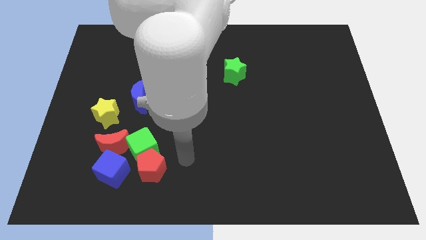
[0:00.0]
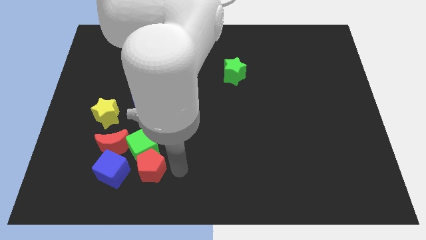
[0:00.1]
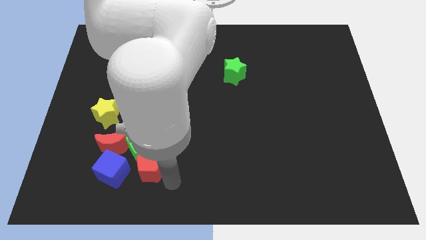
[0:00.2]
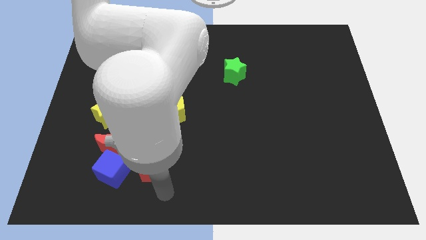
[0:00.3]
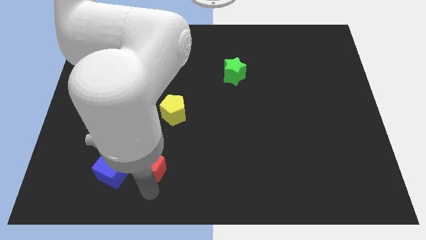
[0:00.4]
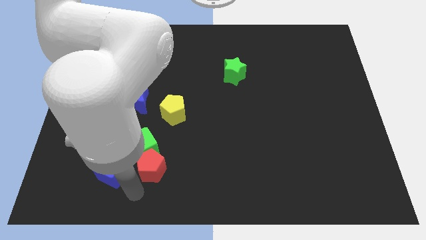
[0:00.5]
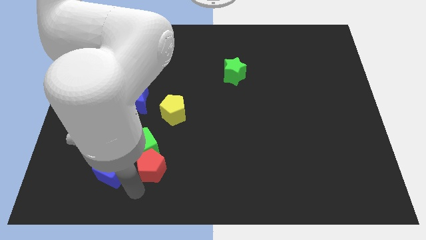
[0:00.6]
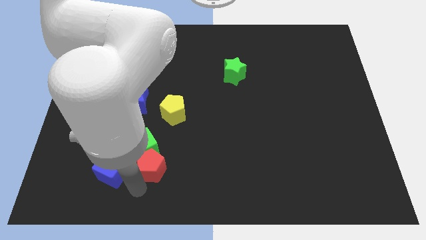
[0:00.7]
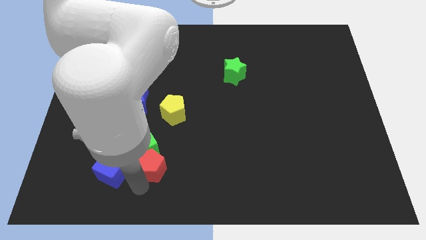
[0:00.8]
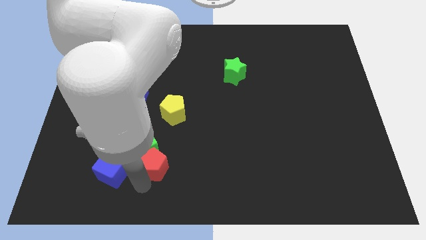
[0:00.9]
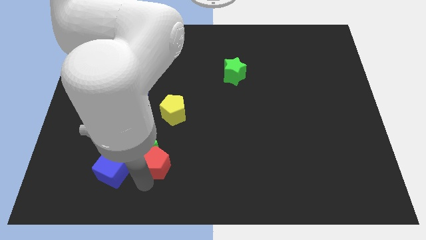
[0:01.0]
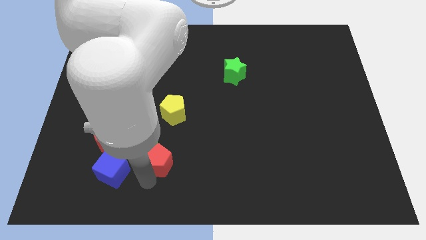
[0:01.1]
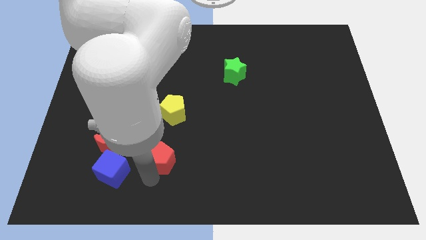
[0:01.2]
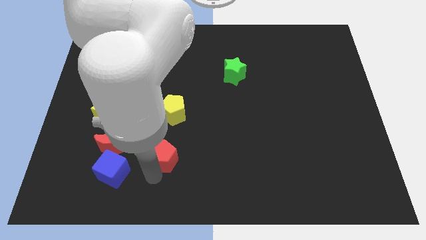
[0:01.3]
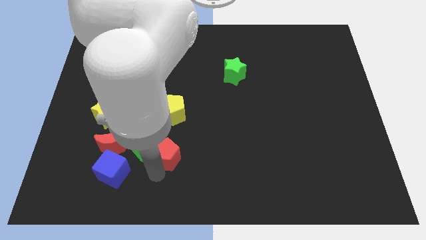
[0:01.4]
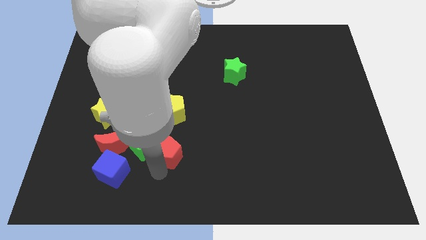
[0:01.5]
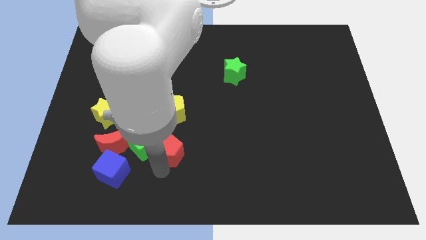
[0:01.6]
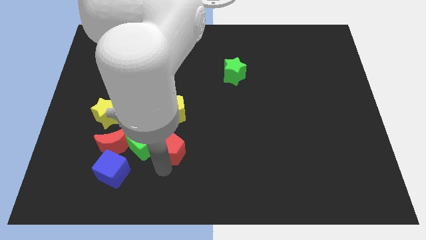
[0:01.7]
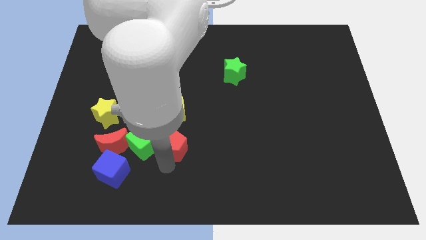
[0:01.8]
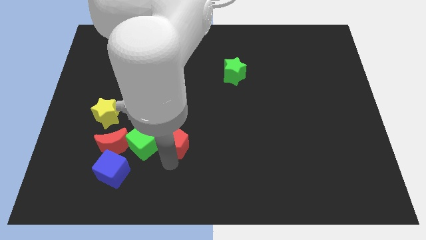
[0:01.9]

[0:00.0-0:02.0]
slightly move the red pentagon up and right

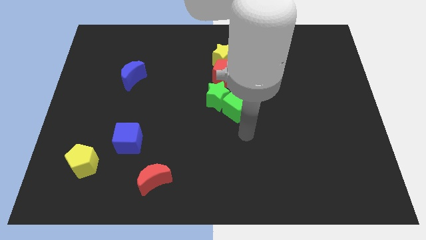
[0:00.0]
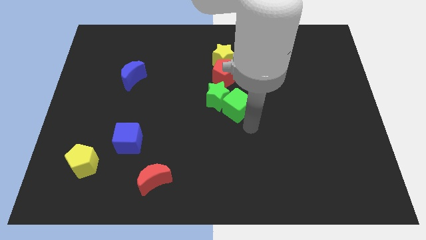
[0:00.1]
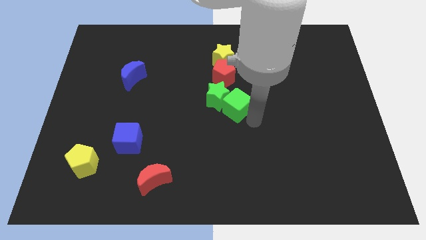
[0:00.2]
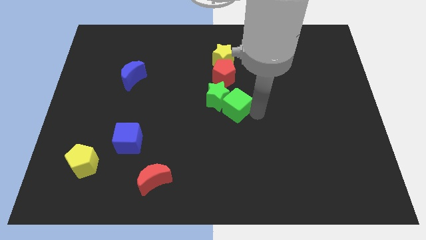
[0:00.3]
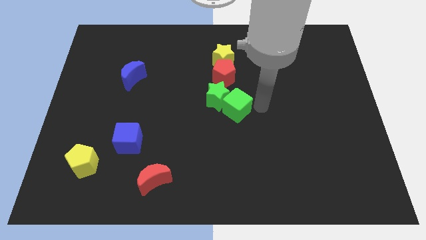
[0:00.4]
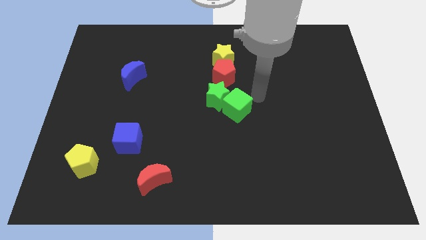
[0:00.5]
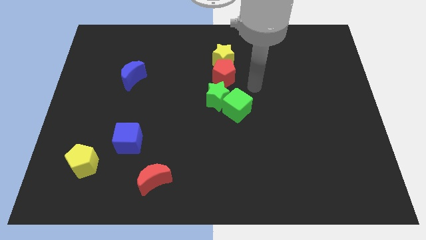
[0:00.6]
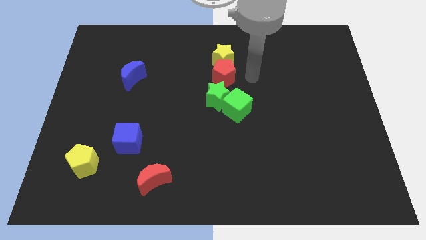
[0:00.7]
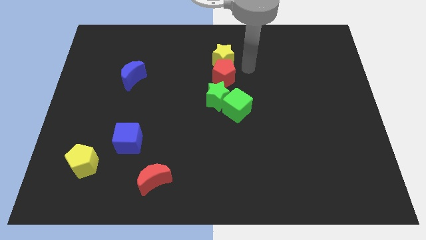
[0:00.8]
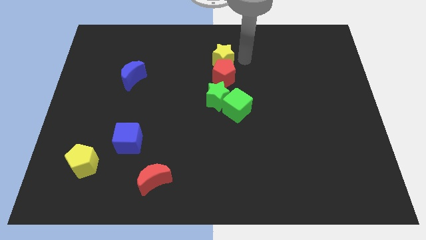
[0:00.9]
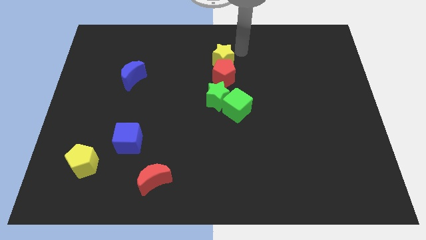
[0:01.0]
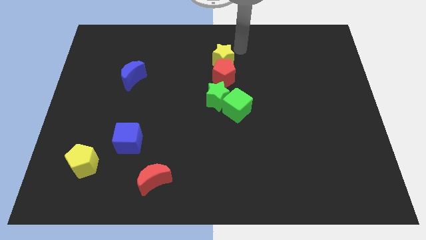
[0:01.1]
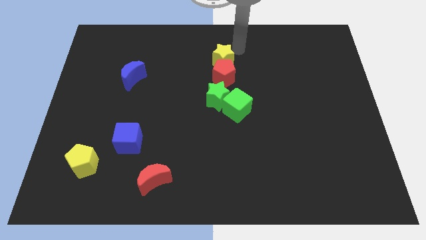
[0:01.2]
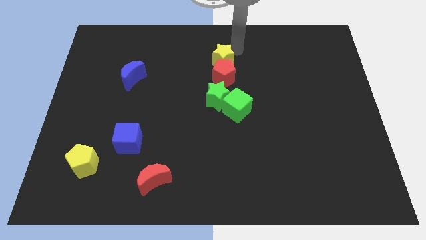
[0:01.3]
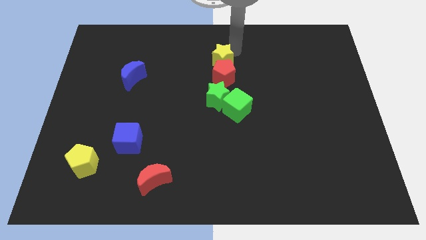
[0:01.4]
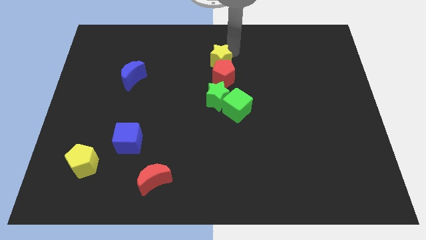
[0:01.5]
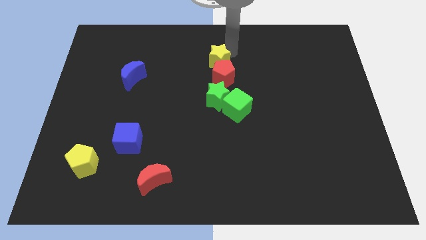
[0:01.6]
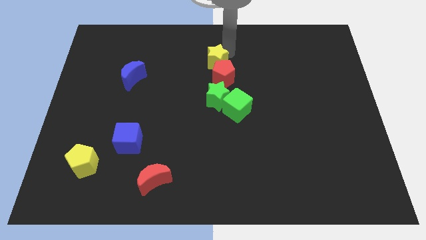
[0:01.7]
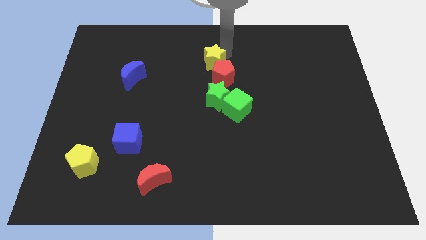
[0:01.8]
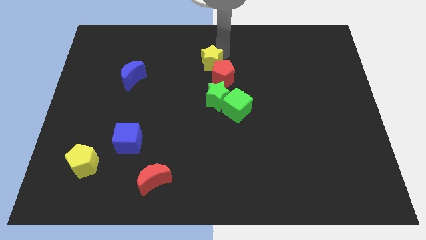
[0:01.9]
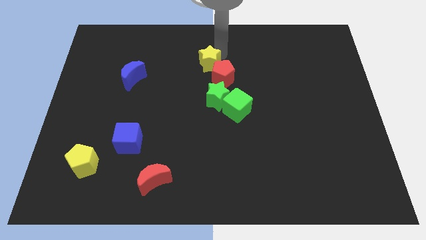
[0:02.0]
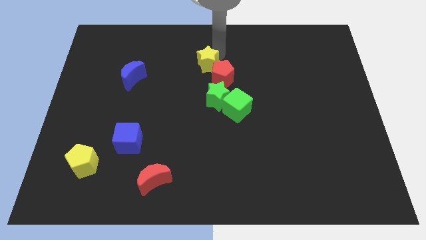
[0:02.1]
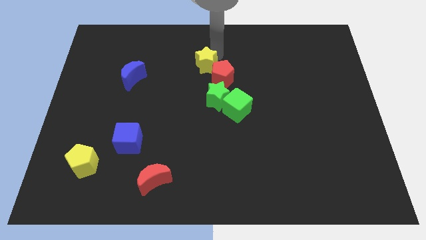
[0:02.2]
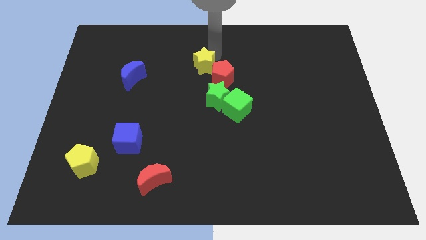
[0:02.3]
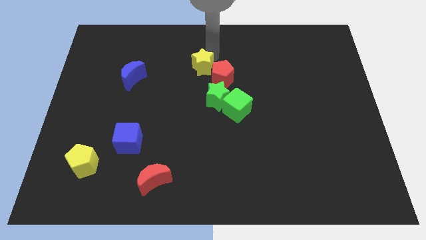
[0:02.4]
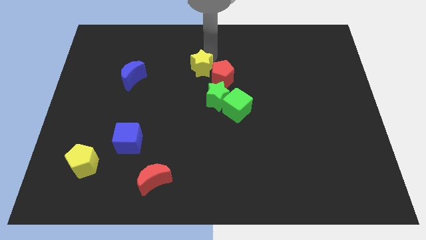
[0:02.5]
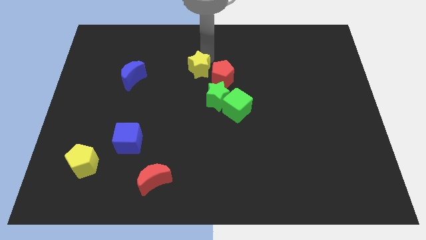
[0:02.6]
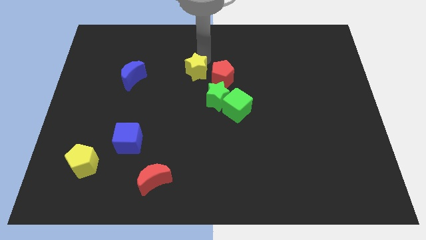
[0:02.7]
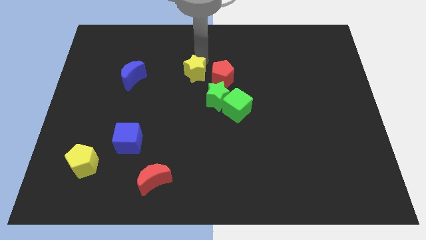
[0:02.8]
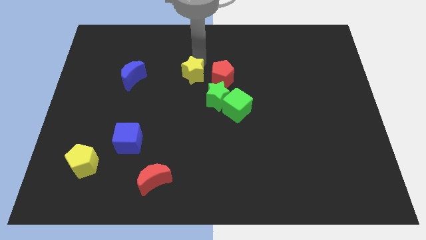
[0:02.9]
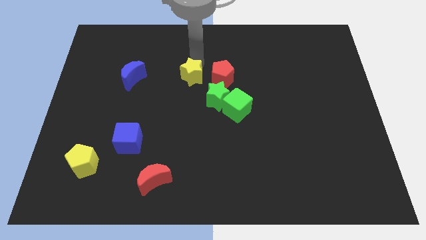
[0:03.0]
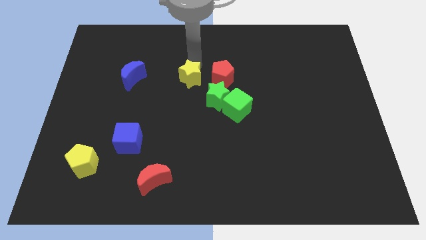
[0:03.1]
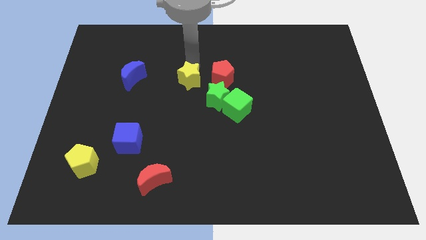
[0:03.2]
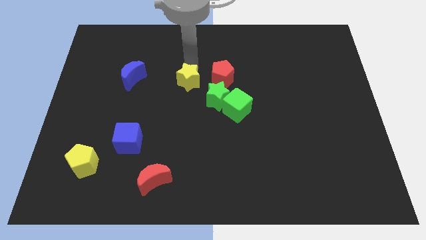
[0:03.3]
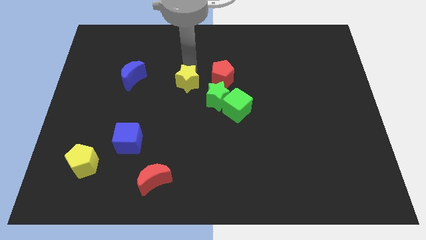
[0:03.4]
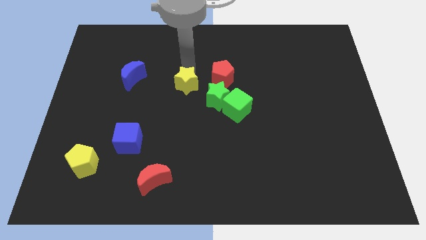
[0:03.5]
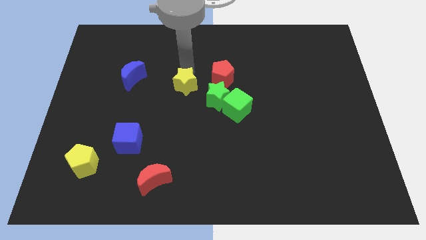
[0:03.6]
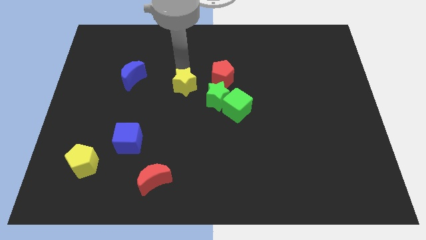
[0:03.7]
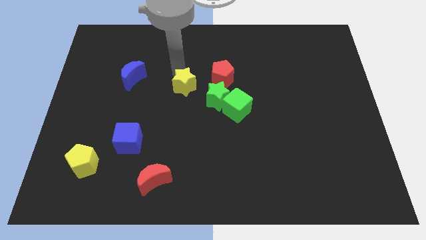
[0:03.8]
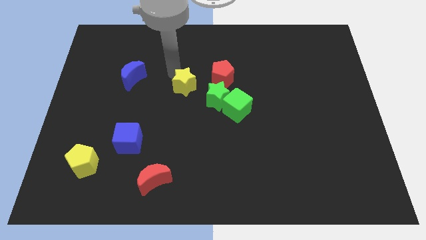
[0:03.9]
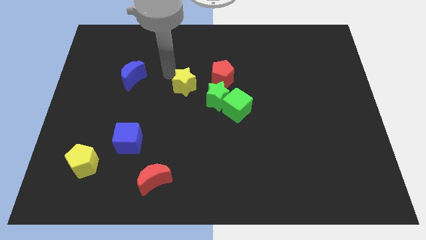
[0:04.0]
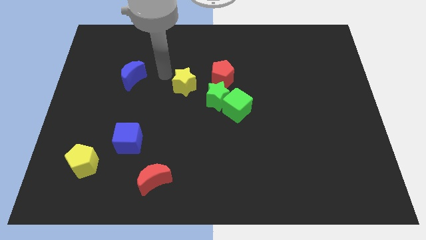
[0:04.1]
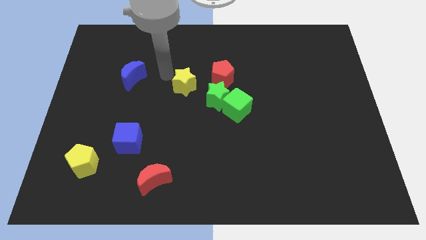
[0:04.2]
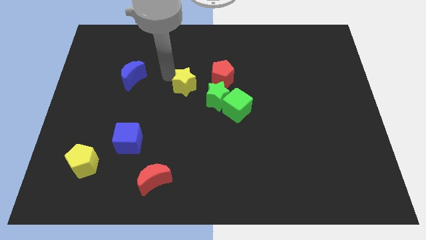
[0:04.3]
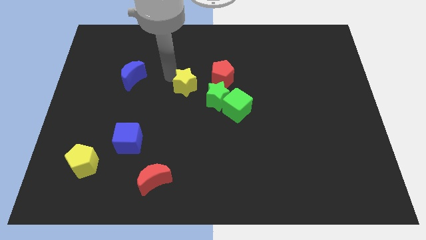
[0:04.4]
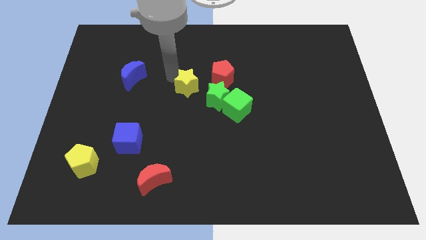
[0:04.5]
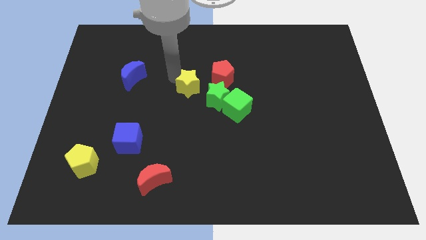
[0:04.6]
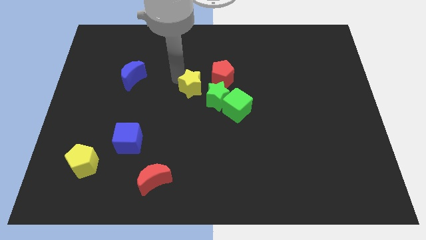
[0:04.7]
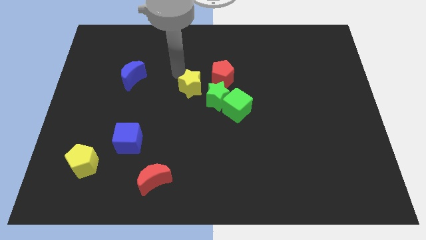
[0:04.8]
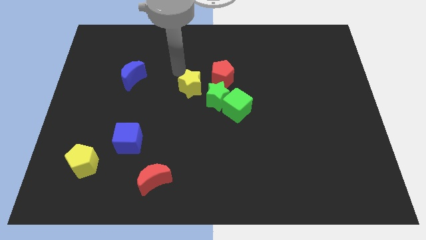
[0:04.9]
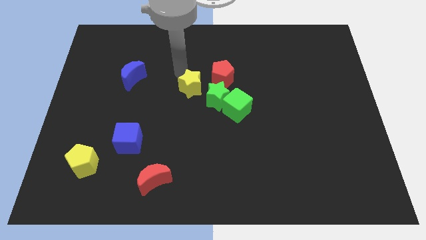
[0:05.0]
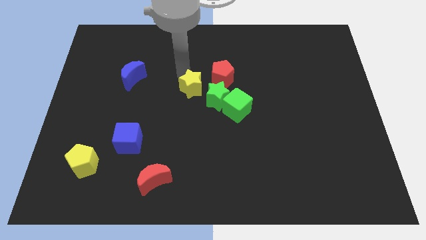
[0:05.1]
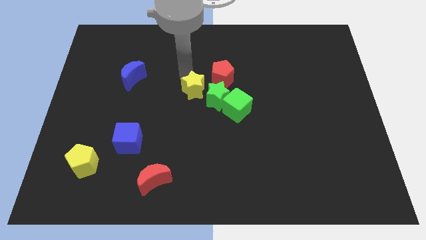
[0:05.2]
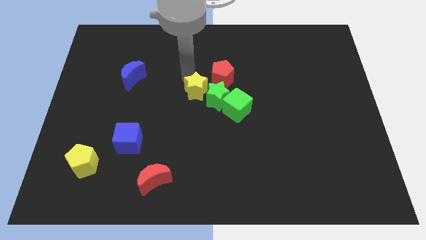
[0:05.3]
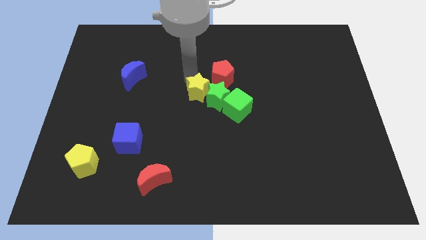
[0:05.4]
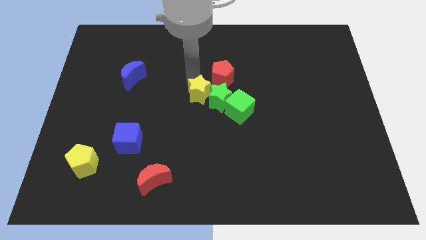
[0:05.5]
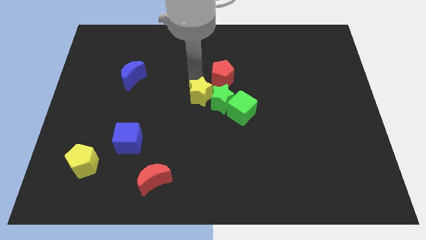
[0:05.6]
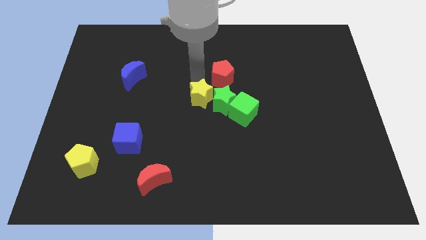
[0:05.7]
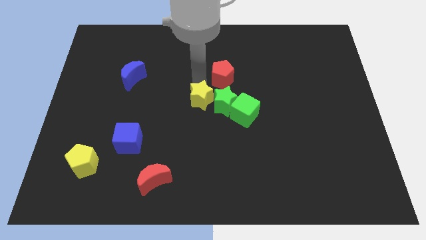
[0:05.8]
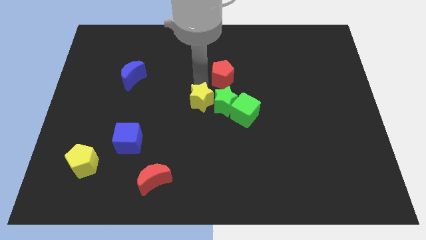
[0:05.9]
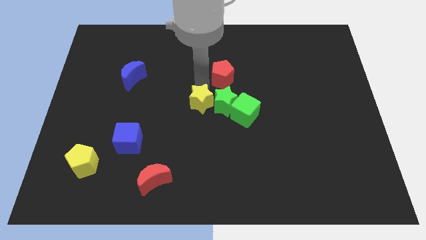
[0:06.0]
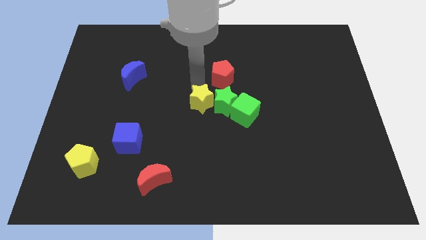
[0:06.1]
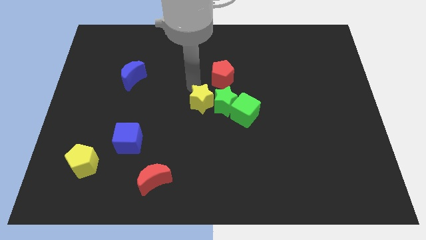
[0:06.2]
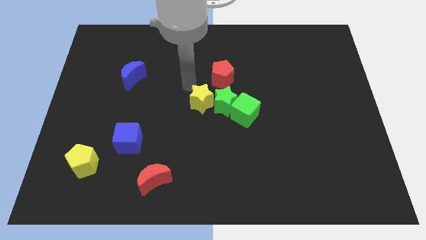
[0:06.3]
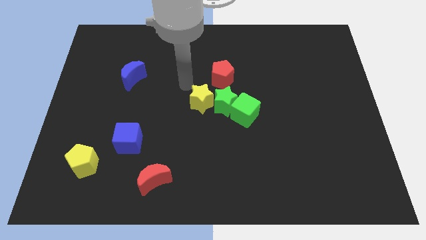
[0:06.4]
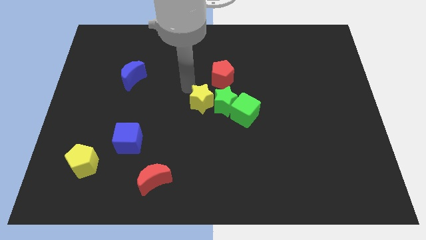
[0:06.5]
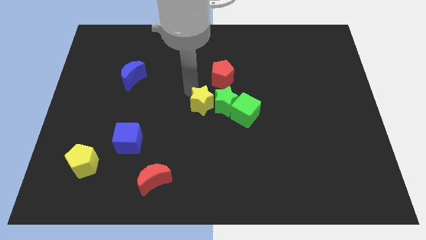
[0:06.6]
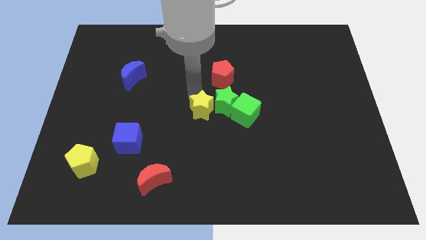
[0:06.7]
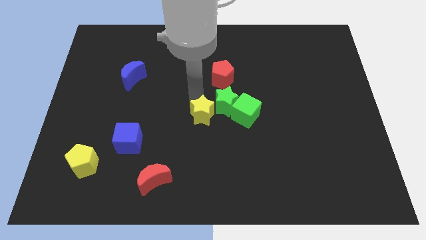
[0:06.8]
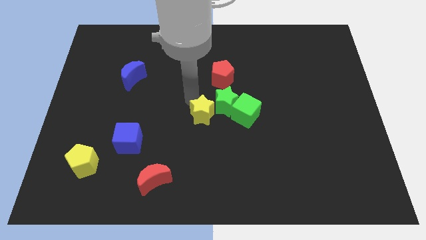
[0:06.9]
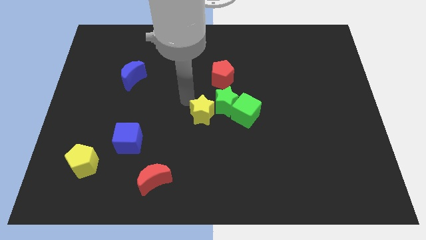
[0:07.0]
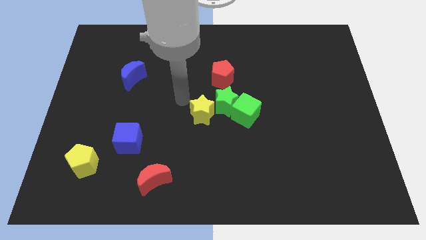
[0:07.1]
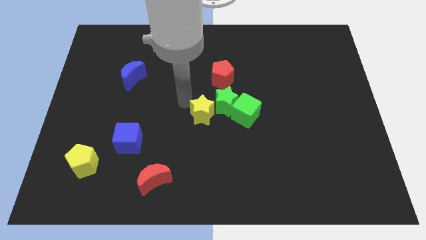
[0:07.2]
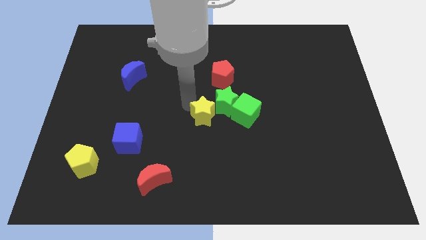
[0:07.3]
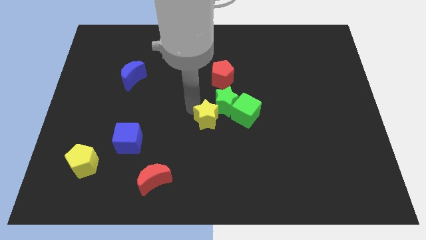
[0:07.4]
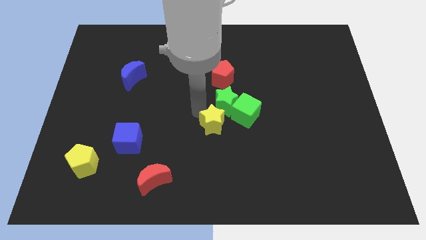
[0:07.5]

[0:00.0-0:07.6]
move the yellow star downwards
